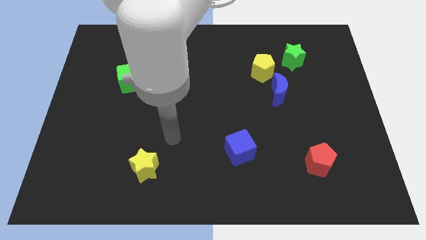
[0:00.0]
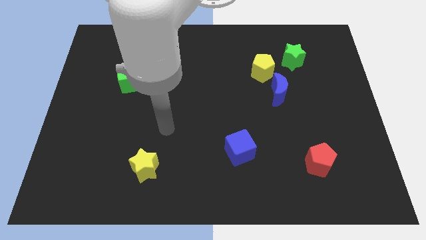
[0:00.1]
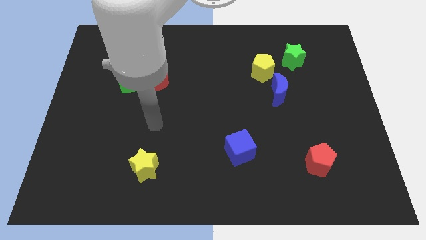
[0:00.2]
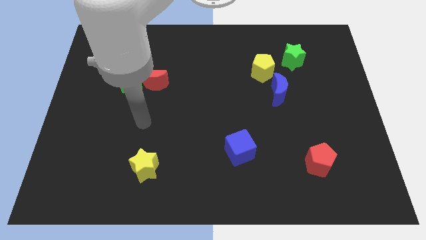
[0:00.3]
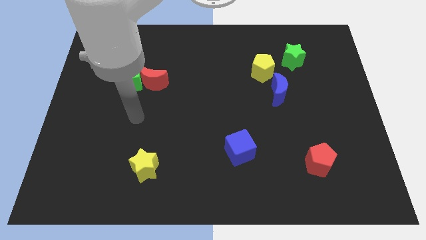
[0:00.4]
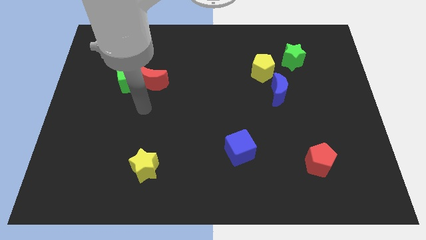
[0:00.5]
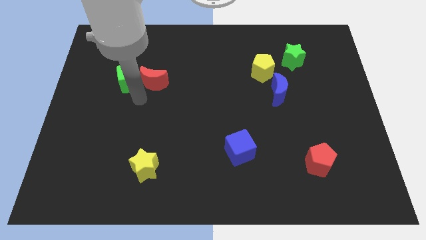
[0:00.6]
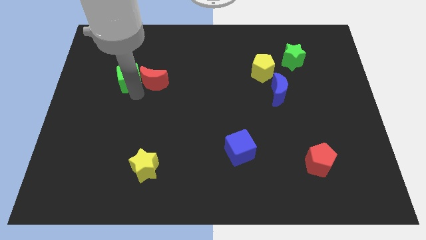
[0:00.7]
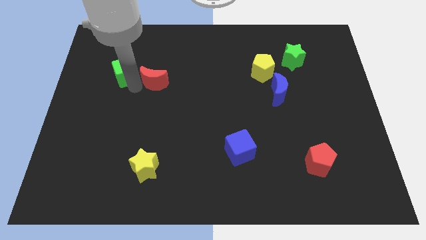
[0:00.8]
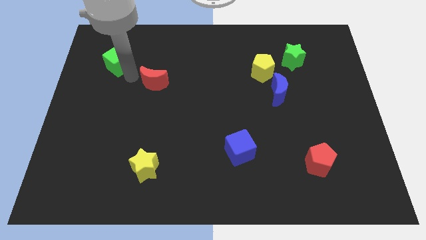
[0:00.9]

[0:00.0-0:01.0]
separate the red moon from the green cube

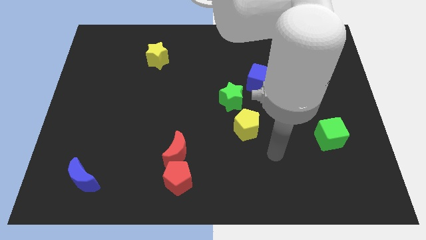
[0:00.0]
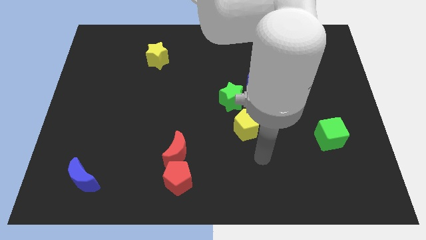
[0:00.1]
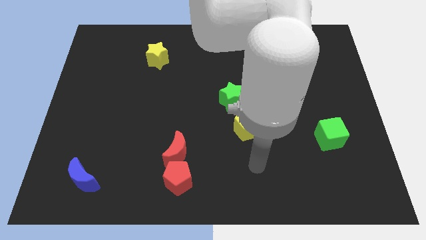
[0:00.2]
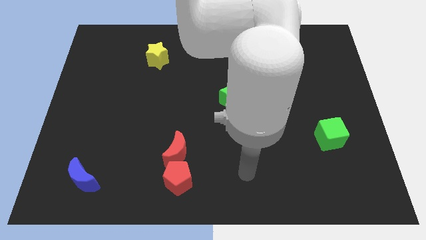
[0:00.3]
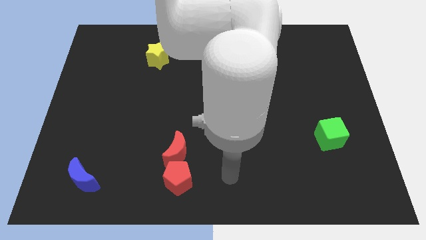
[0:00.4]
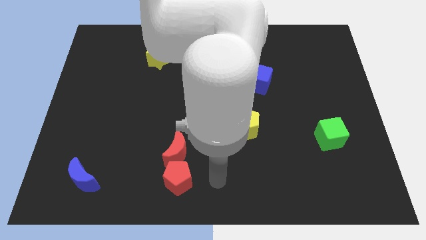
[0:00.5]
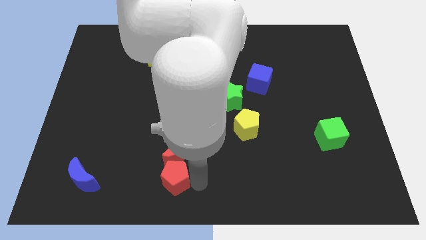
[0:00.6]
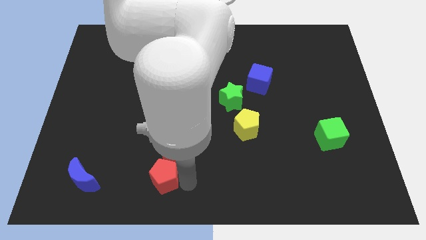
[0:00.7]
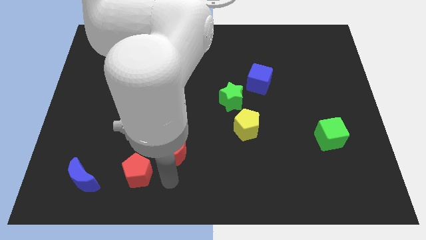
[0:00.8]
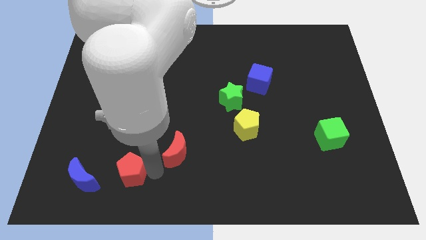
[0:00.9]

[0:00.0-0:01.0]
pull the red moon apart from the red pentagon

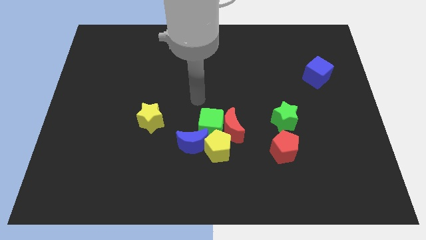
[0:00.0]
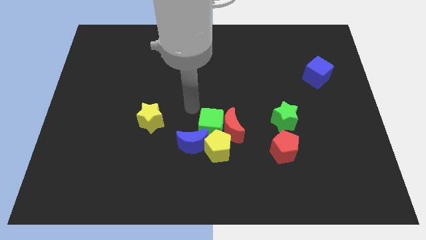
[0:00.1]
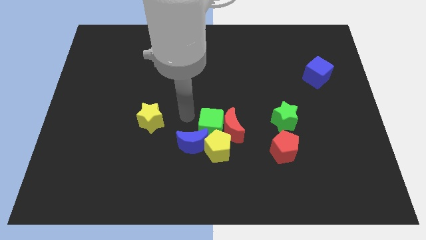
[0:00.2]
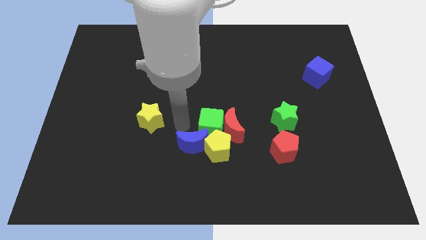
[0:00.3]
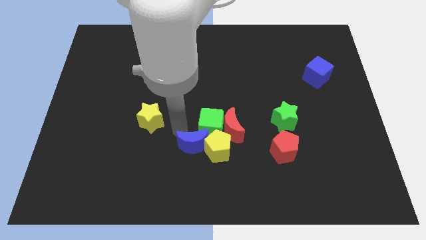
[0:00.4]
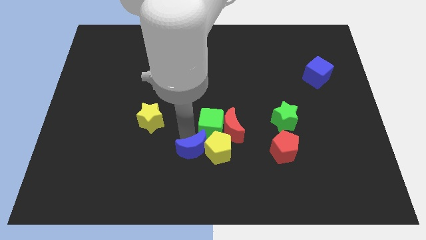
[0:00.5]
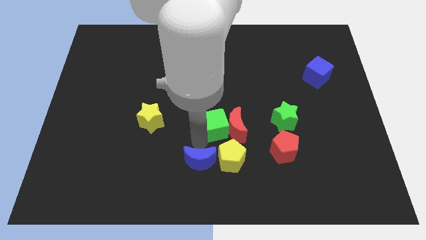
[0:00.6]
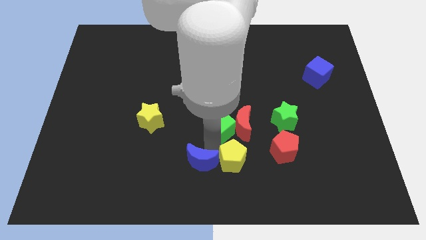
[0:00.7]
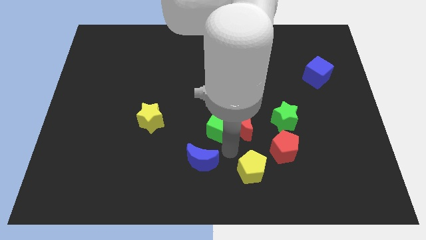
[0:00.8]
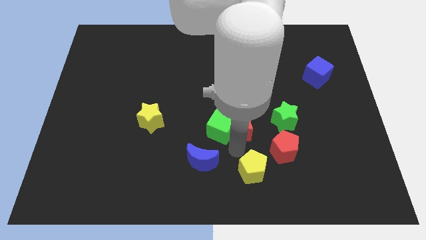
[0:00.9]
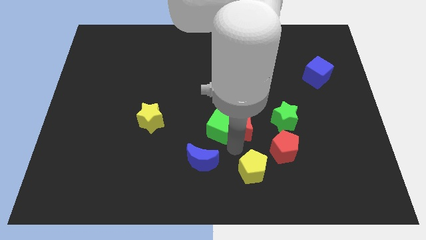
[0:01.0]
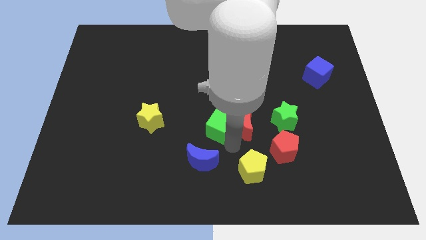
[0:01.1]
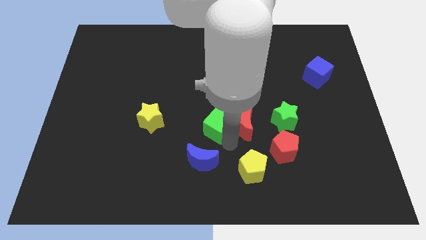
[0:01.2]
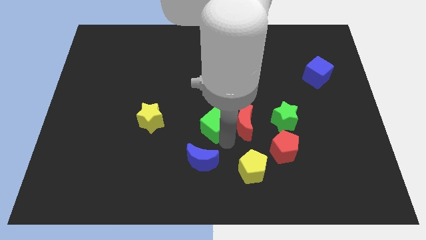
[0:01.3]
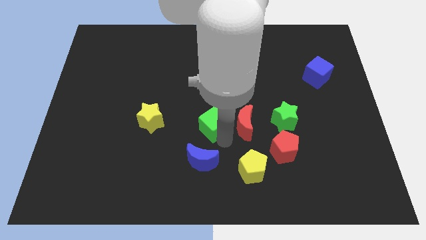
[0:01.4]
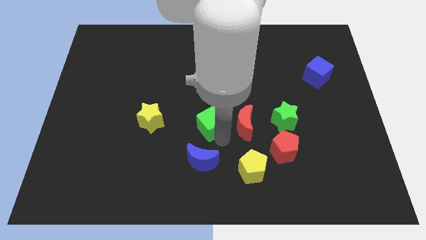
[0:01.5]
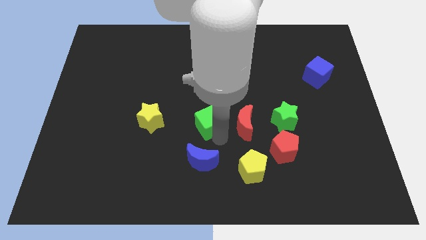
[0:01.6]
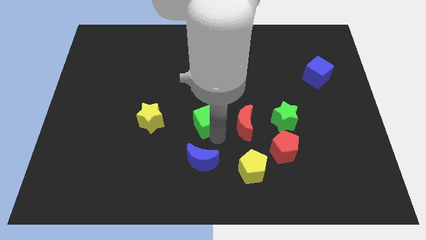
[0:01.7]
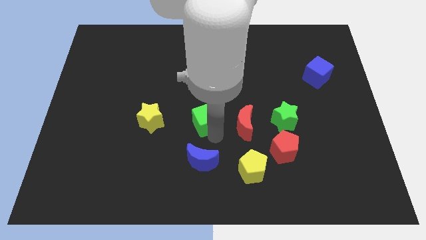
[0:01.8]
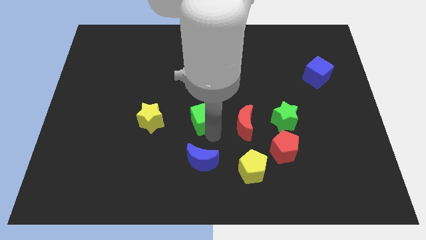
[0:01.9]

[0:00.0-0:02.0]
move the green cube away from the clump

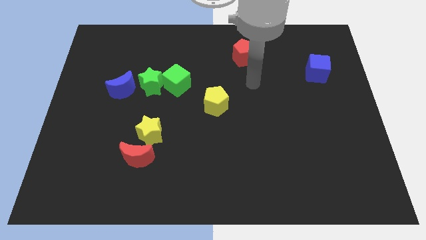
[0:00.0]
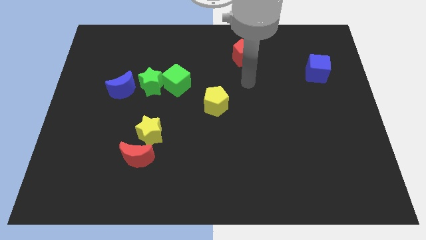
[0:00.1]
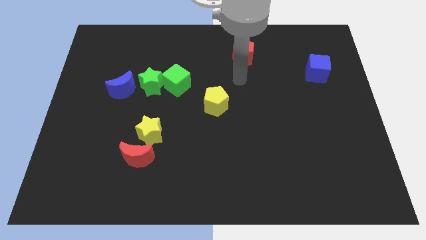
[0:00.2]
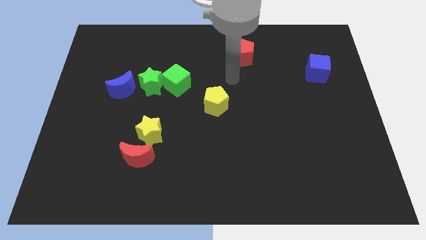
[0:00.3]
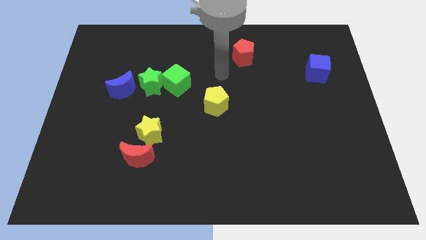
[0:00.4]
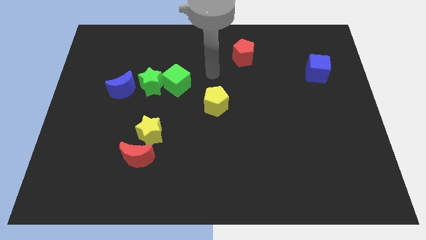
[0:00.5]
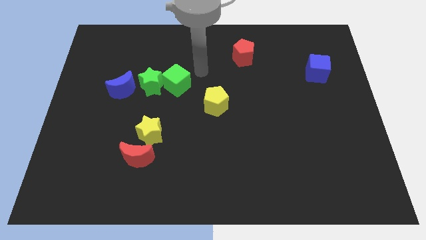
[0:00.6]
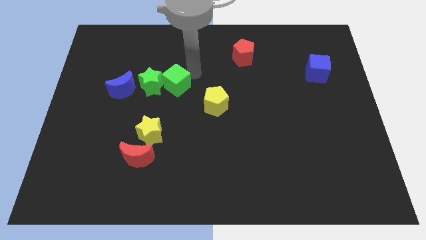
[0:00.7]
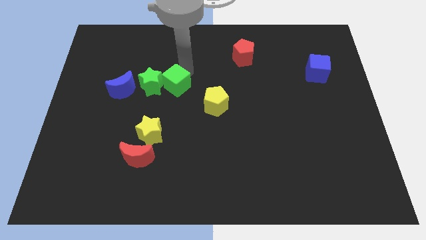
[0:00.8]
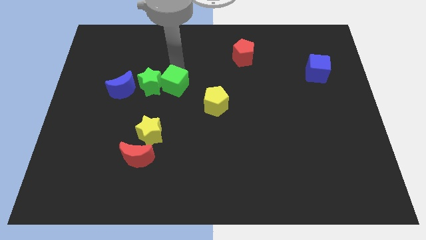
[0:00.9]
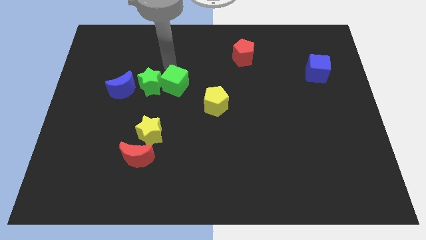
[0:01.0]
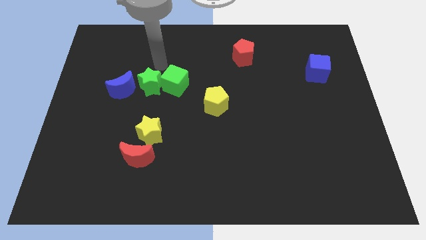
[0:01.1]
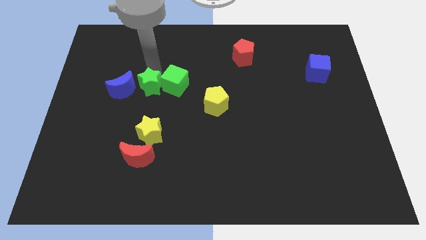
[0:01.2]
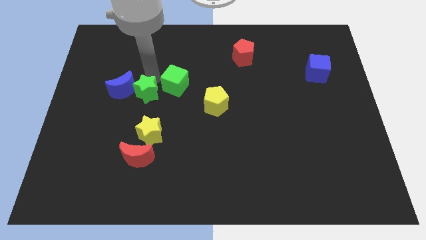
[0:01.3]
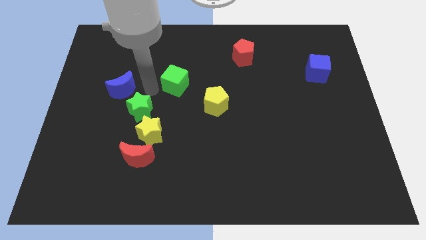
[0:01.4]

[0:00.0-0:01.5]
pull the green cube apart from the green star

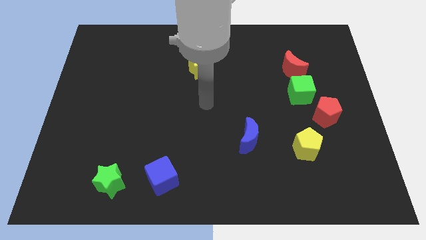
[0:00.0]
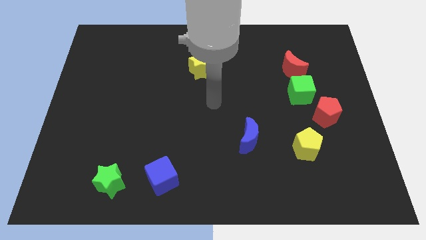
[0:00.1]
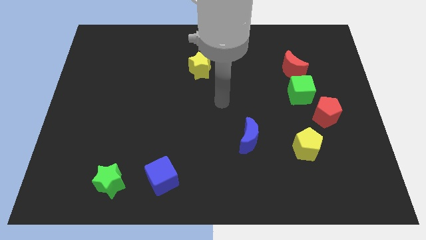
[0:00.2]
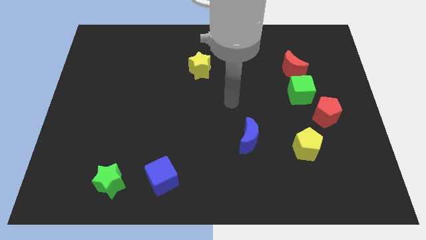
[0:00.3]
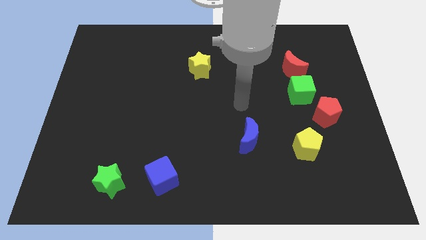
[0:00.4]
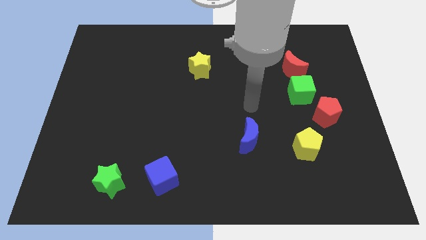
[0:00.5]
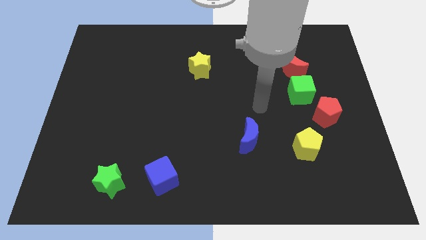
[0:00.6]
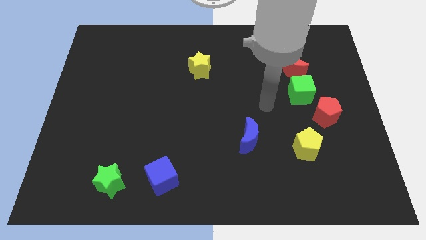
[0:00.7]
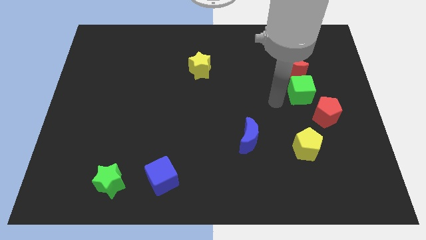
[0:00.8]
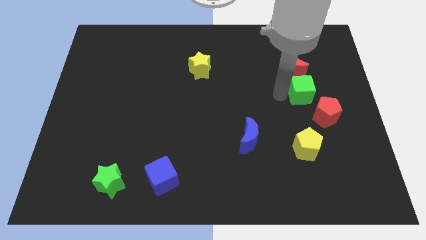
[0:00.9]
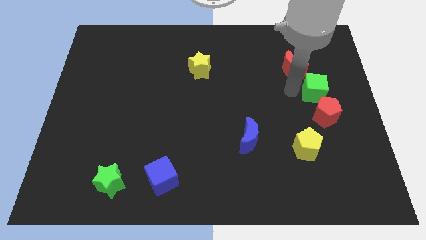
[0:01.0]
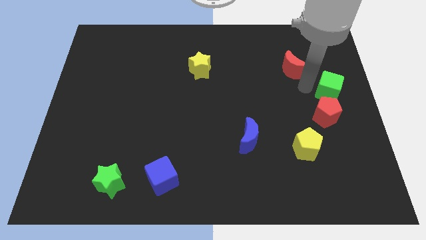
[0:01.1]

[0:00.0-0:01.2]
move the red moon away from the green cube

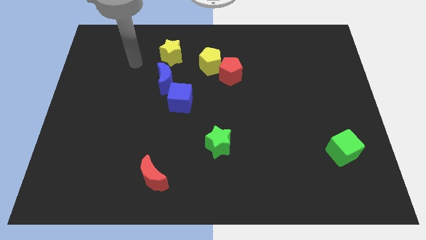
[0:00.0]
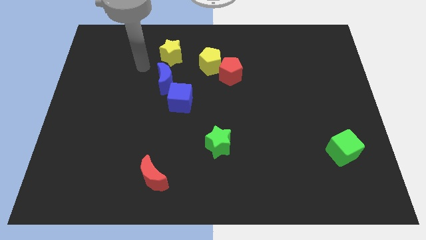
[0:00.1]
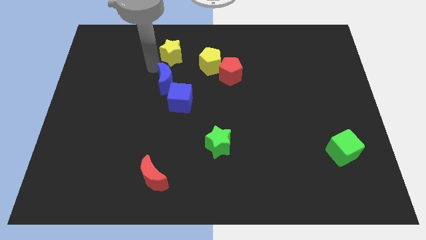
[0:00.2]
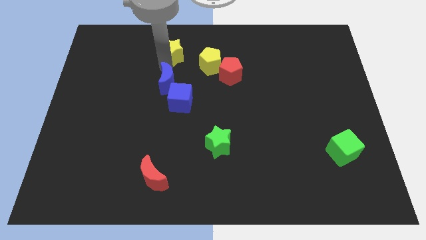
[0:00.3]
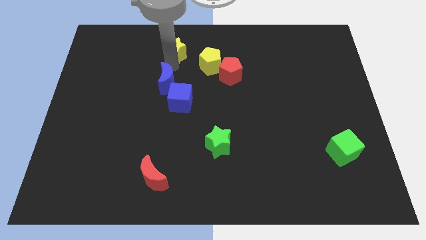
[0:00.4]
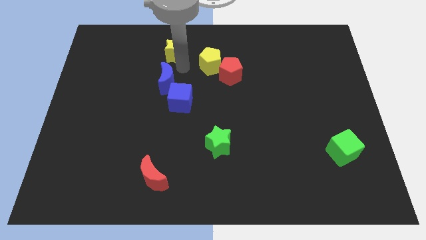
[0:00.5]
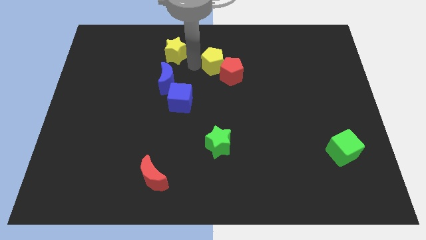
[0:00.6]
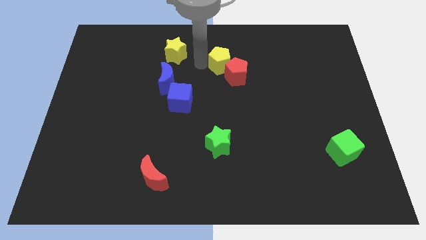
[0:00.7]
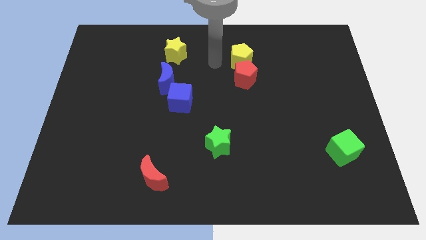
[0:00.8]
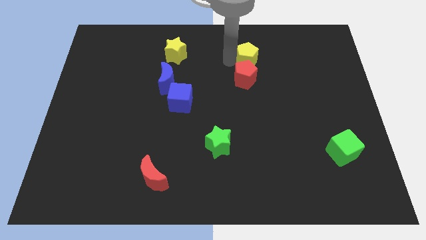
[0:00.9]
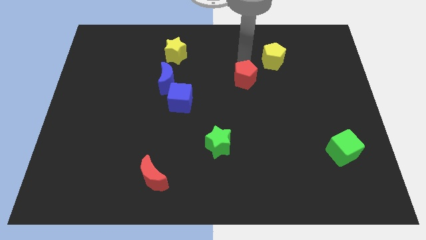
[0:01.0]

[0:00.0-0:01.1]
pull the red pentagon apart from the yellow pentagon

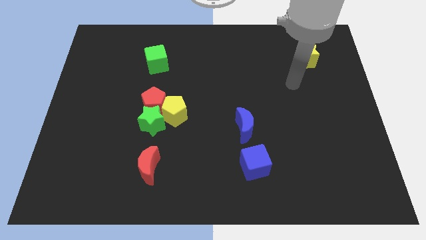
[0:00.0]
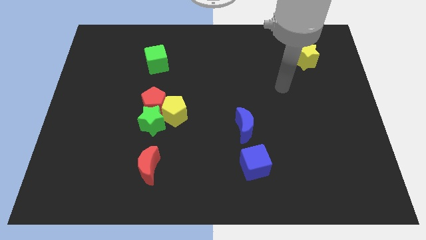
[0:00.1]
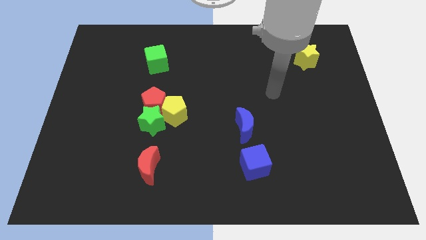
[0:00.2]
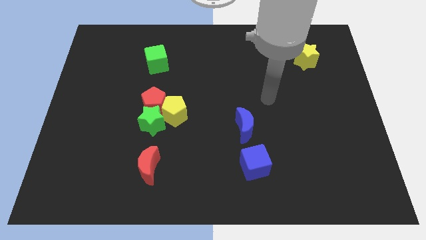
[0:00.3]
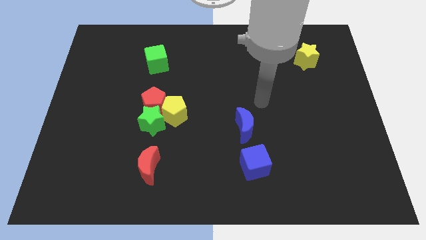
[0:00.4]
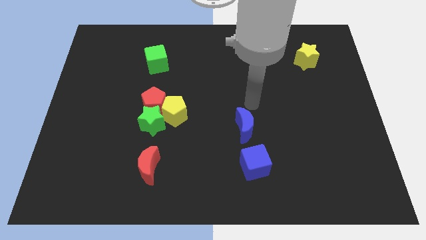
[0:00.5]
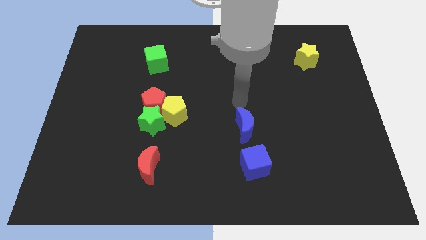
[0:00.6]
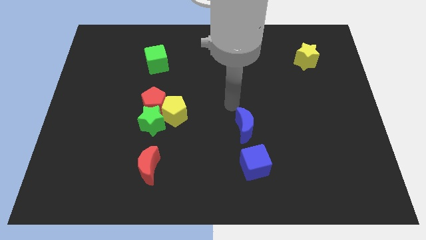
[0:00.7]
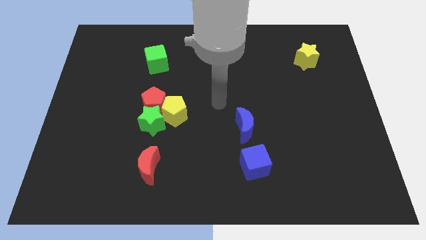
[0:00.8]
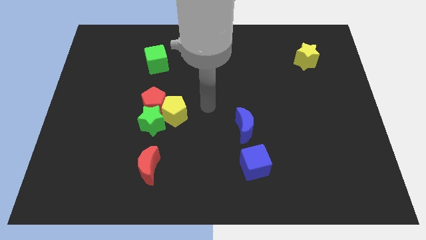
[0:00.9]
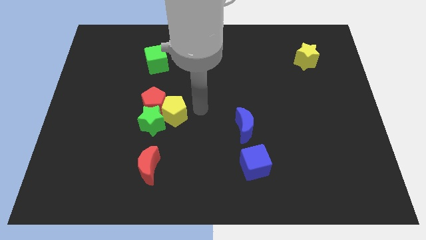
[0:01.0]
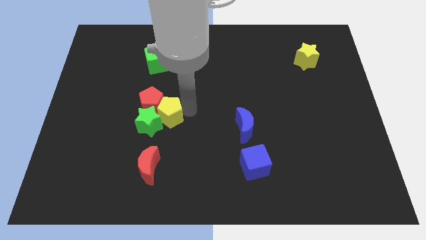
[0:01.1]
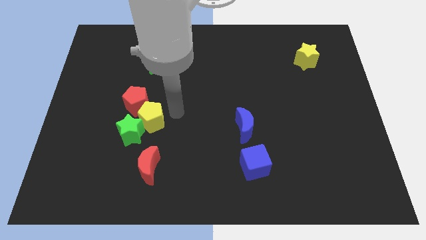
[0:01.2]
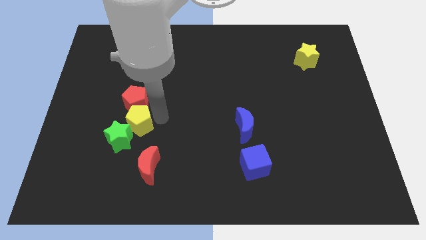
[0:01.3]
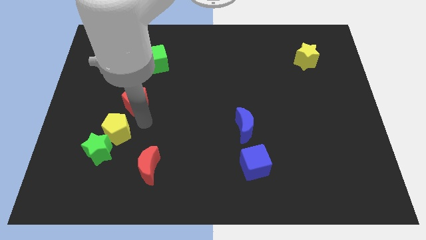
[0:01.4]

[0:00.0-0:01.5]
move the red pentagon away from the green star and yellow pentagon
